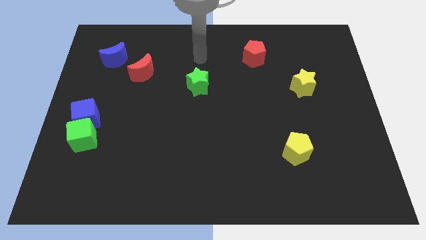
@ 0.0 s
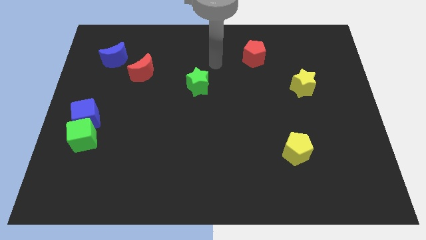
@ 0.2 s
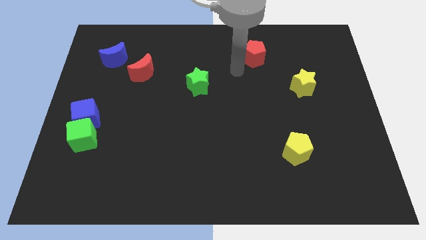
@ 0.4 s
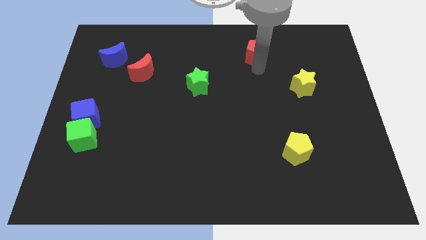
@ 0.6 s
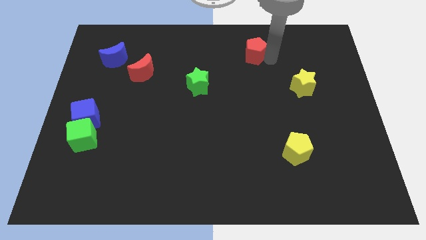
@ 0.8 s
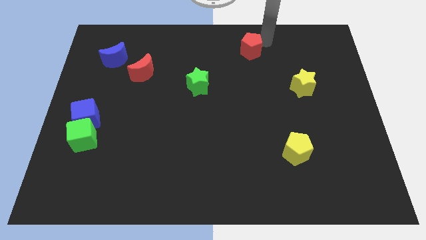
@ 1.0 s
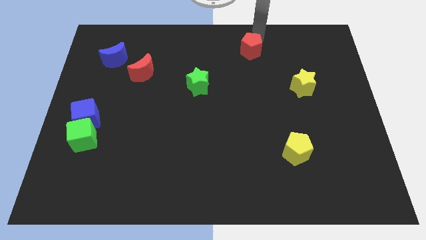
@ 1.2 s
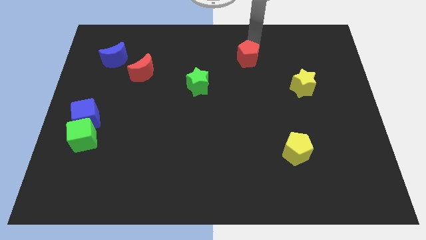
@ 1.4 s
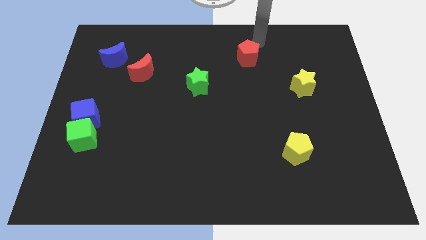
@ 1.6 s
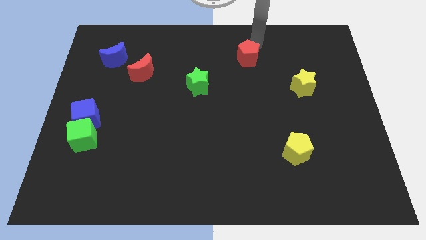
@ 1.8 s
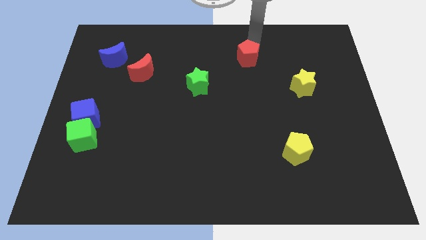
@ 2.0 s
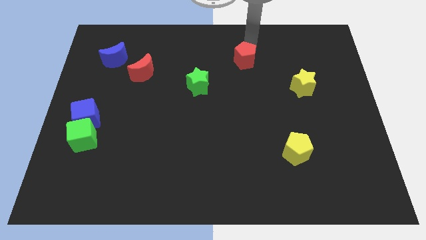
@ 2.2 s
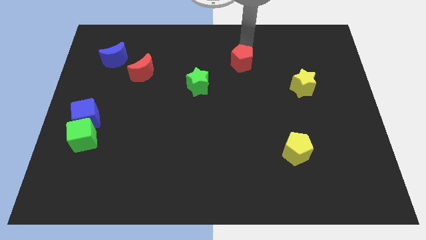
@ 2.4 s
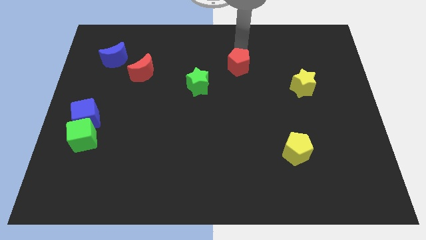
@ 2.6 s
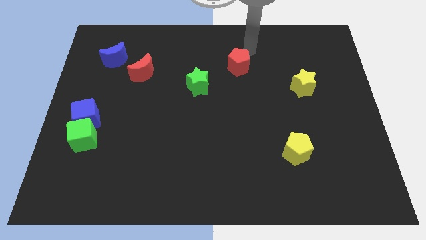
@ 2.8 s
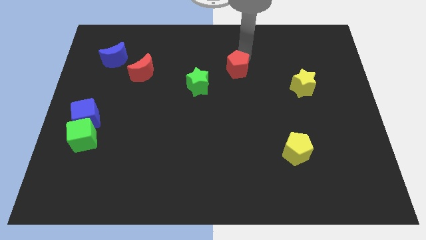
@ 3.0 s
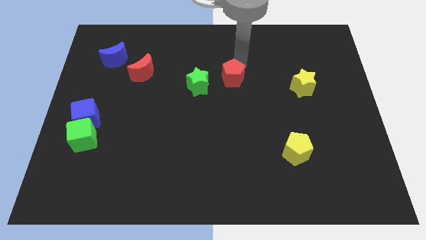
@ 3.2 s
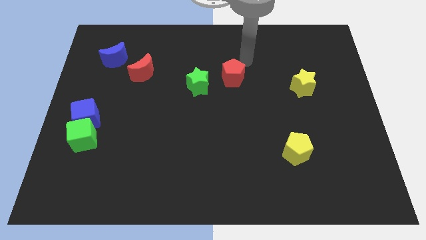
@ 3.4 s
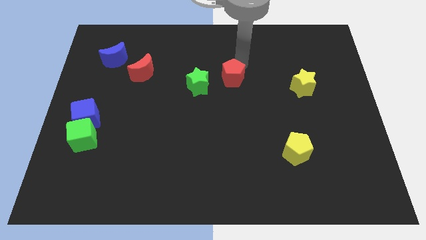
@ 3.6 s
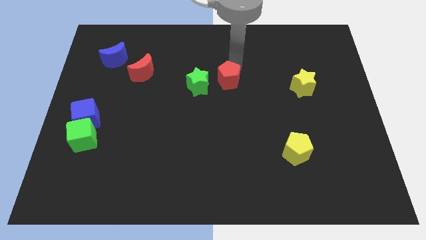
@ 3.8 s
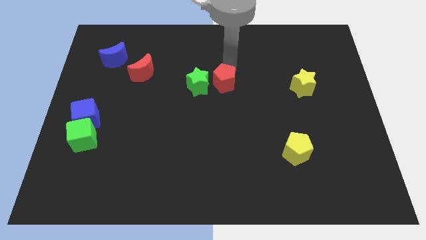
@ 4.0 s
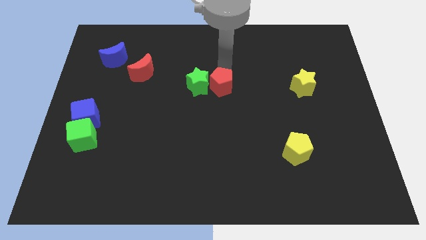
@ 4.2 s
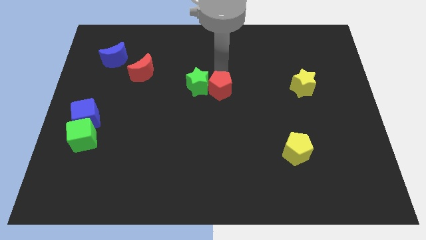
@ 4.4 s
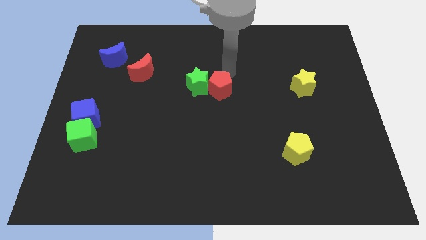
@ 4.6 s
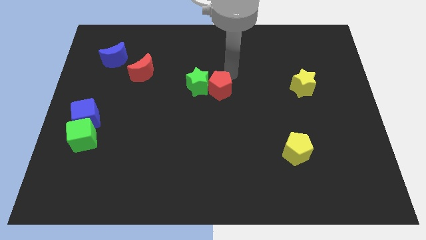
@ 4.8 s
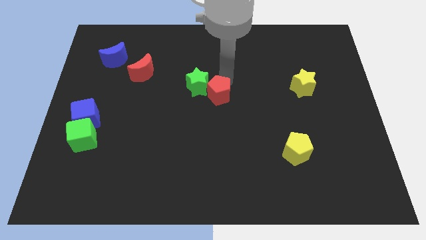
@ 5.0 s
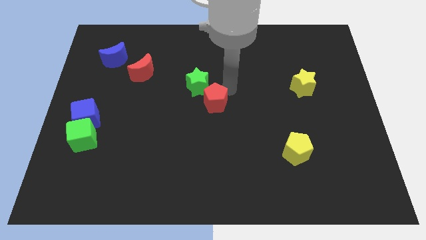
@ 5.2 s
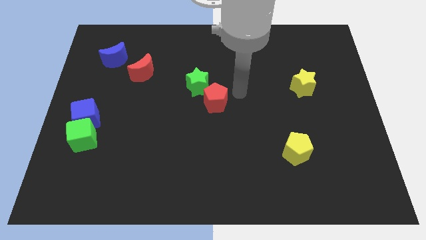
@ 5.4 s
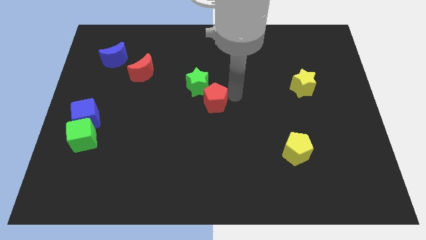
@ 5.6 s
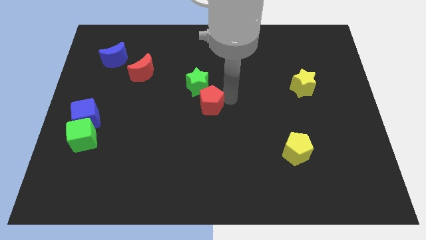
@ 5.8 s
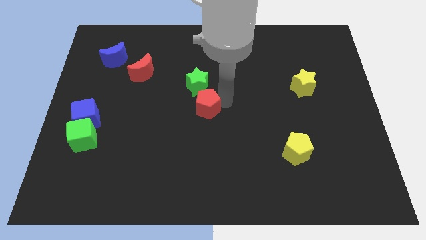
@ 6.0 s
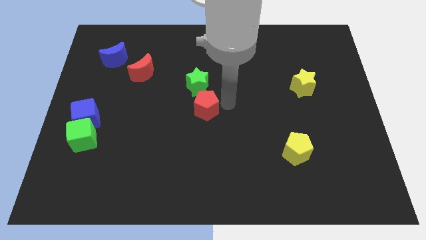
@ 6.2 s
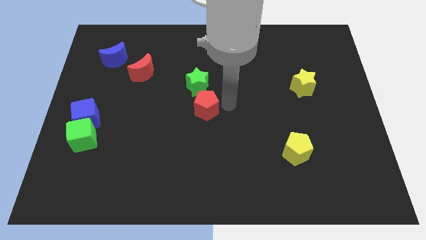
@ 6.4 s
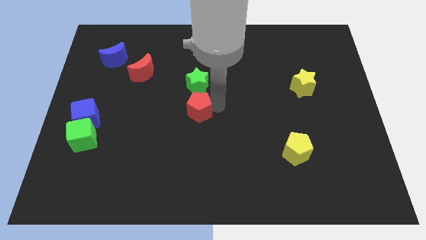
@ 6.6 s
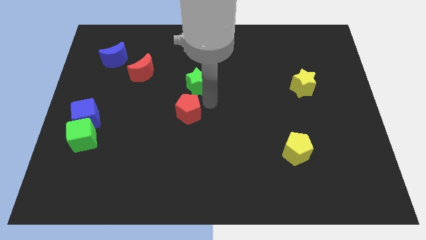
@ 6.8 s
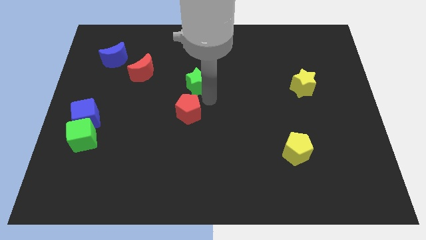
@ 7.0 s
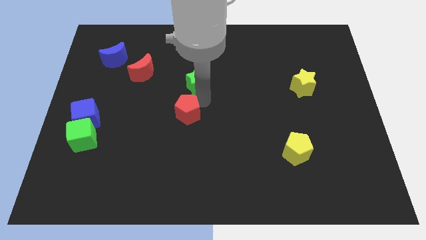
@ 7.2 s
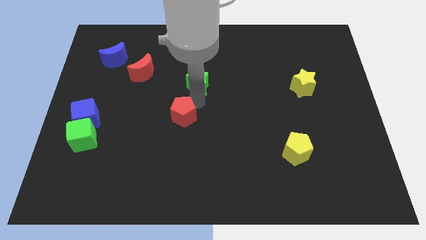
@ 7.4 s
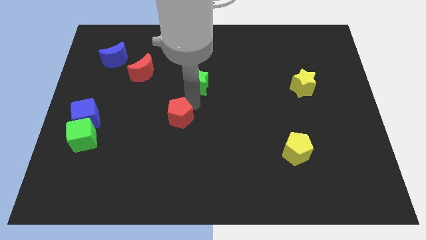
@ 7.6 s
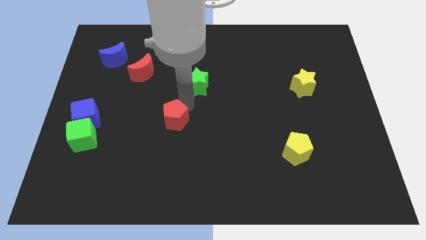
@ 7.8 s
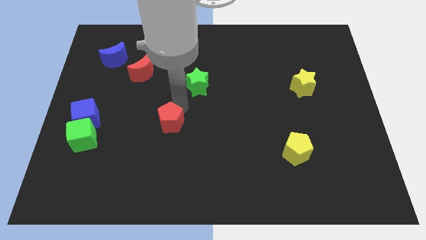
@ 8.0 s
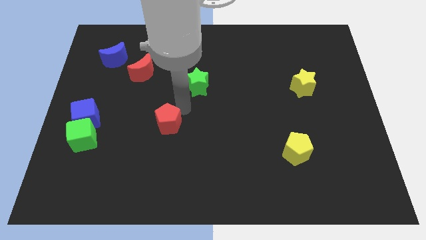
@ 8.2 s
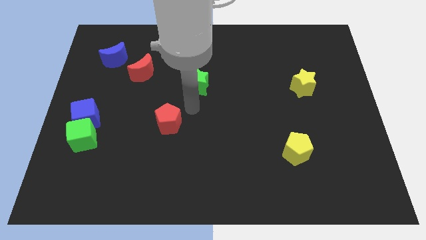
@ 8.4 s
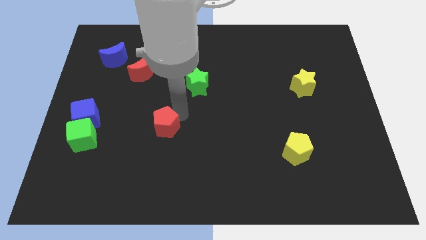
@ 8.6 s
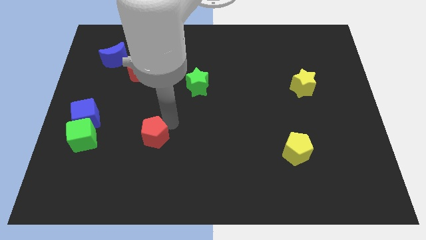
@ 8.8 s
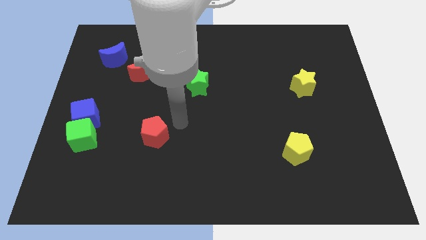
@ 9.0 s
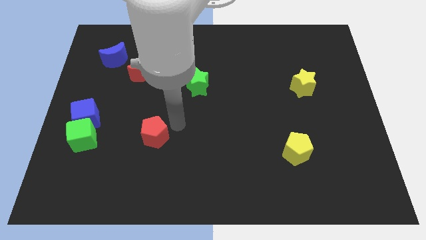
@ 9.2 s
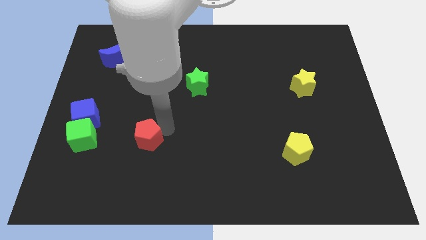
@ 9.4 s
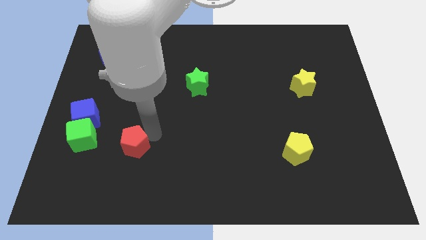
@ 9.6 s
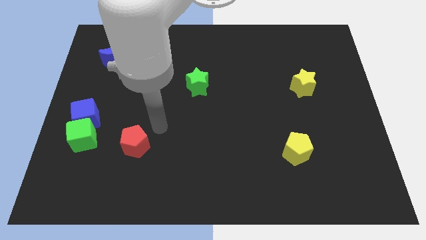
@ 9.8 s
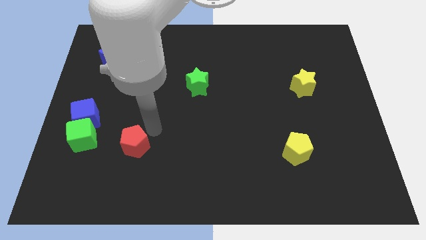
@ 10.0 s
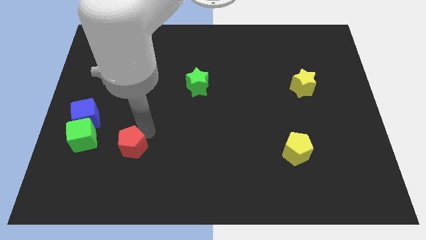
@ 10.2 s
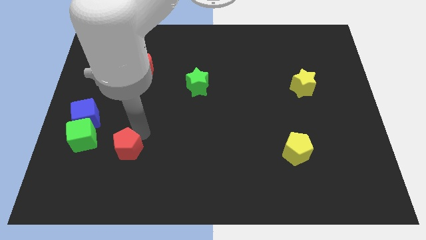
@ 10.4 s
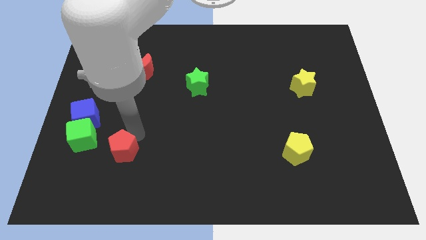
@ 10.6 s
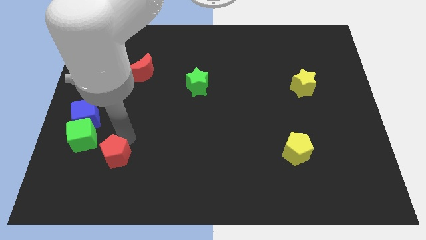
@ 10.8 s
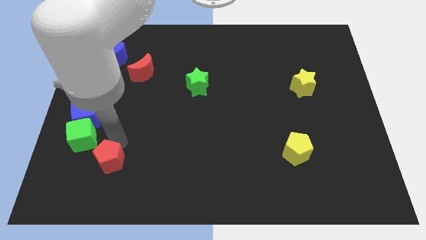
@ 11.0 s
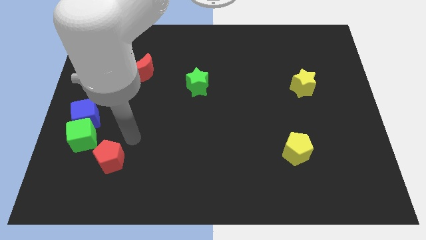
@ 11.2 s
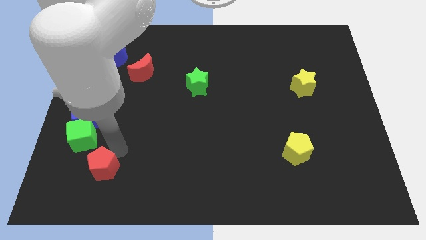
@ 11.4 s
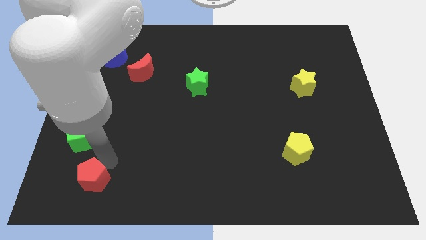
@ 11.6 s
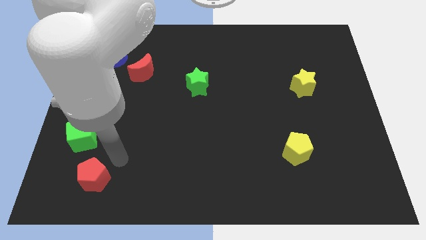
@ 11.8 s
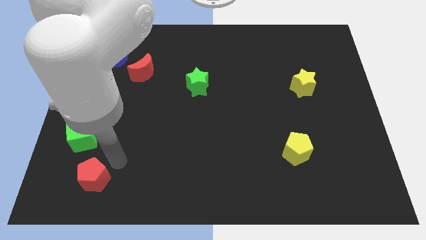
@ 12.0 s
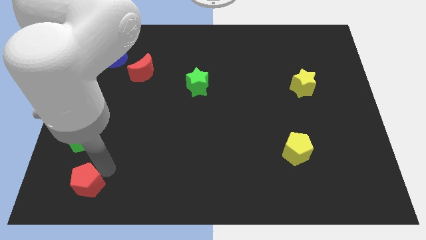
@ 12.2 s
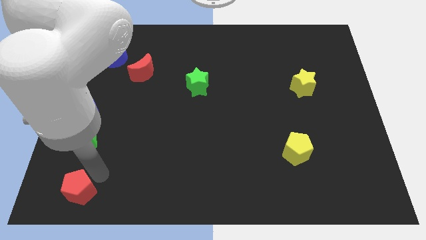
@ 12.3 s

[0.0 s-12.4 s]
slide the red pentagon to the lower left corner
